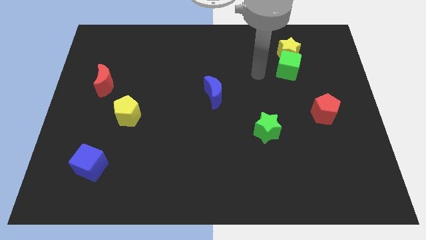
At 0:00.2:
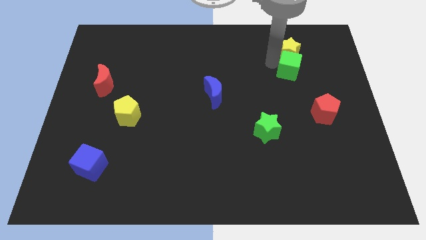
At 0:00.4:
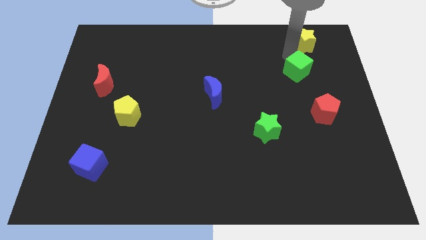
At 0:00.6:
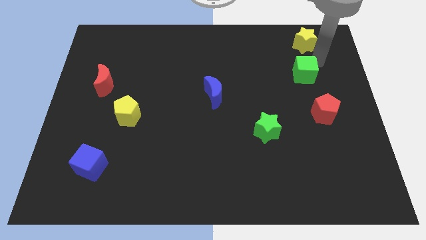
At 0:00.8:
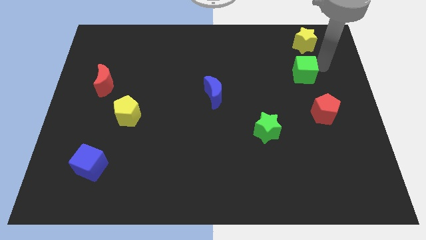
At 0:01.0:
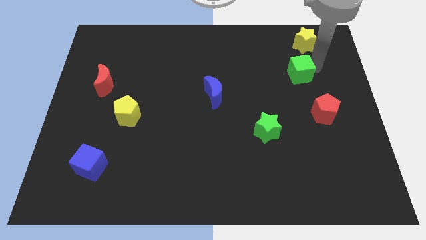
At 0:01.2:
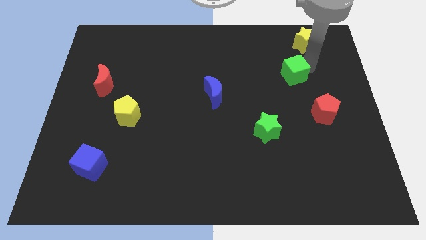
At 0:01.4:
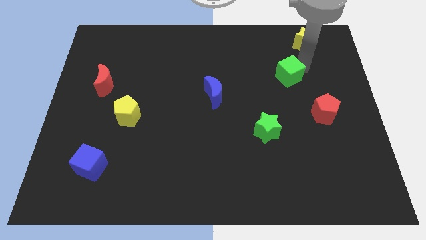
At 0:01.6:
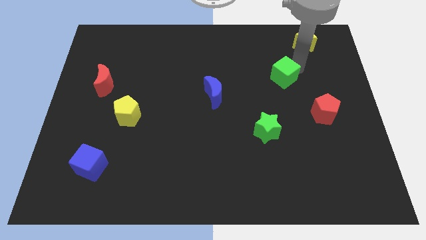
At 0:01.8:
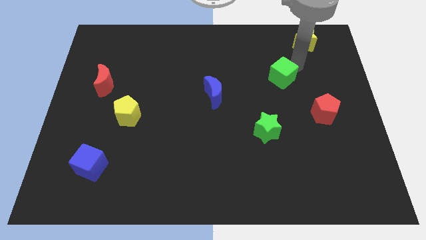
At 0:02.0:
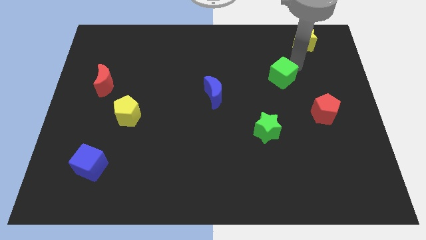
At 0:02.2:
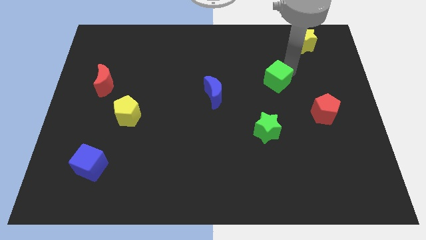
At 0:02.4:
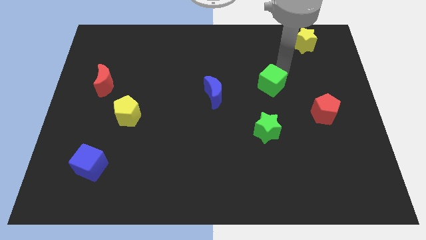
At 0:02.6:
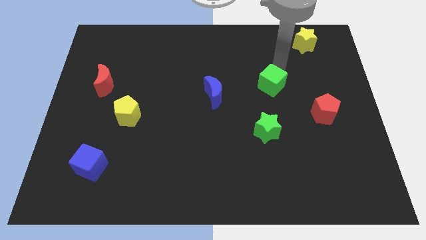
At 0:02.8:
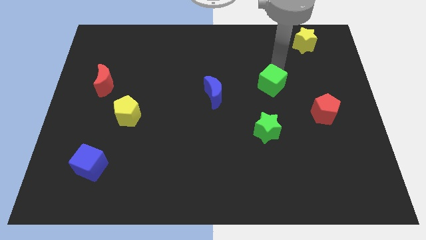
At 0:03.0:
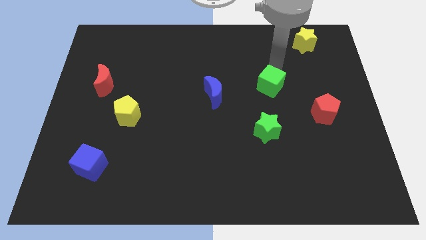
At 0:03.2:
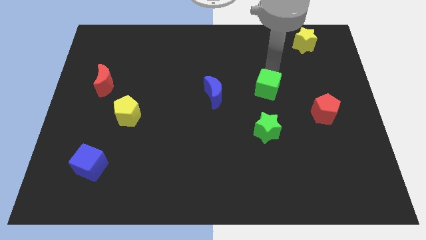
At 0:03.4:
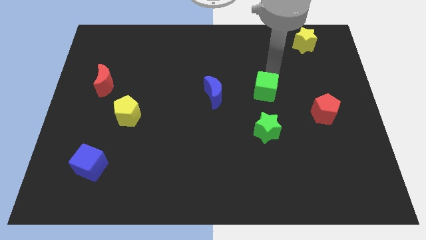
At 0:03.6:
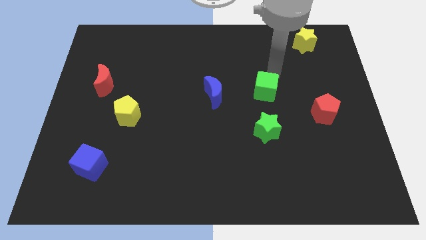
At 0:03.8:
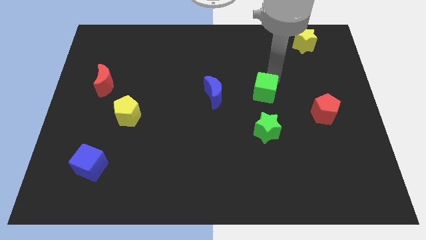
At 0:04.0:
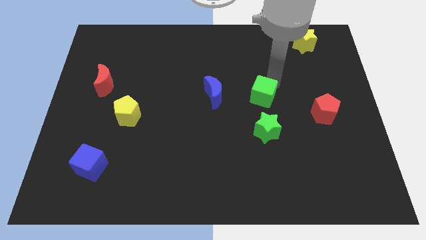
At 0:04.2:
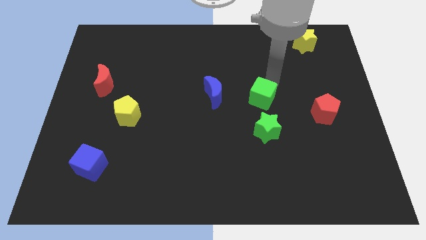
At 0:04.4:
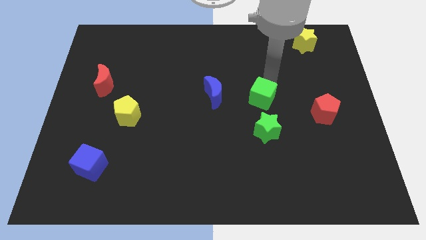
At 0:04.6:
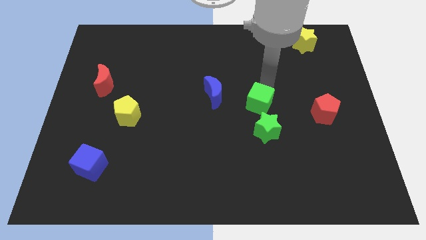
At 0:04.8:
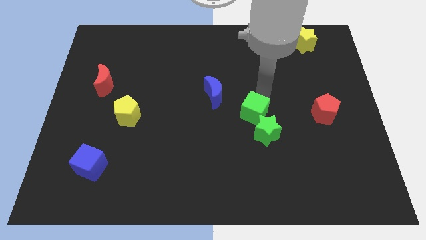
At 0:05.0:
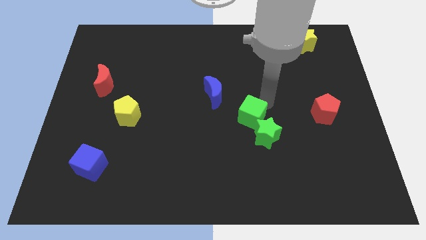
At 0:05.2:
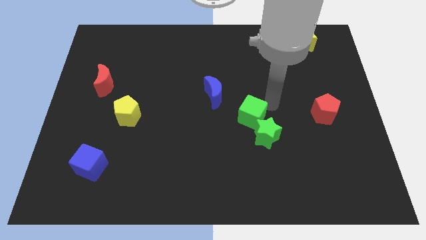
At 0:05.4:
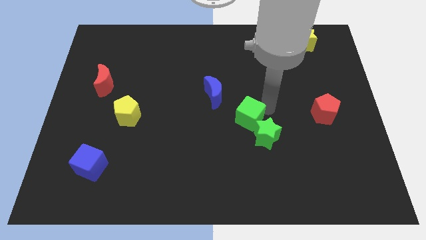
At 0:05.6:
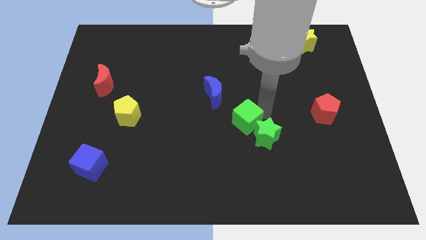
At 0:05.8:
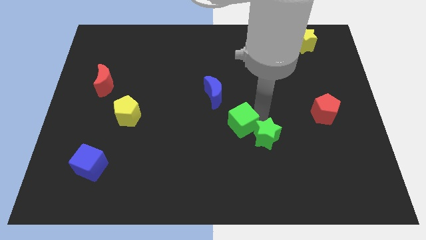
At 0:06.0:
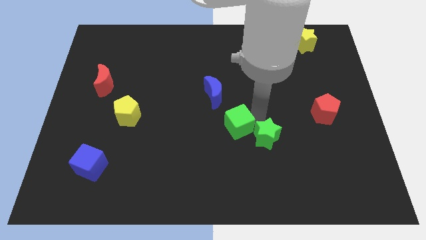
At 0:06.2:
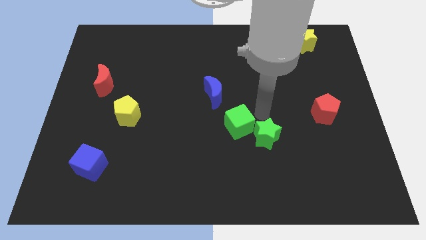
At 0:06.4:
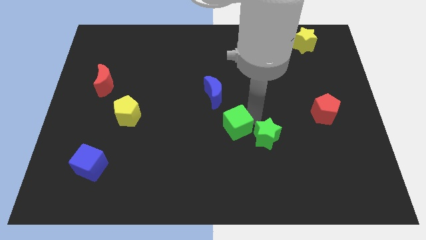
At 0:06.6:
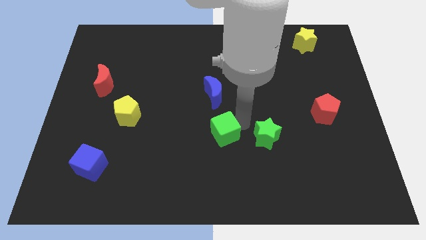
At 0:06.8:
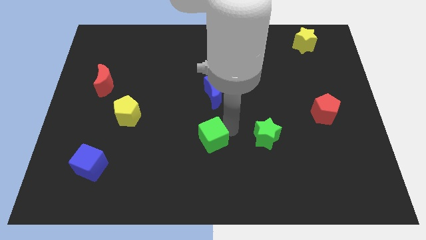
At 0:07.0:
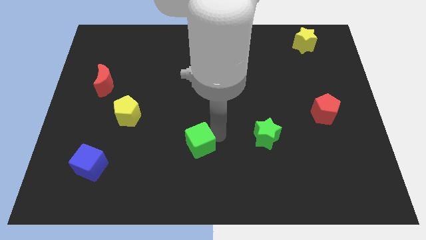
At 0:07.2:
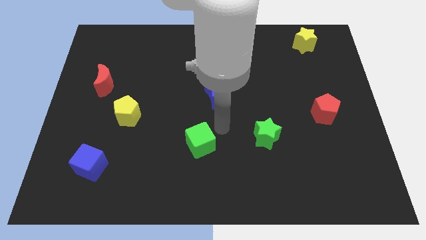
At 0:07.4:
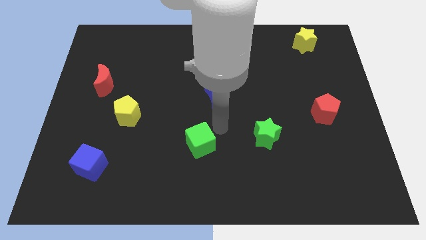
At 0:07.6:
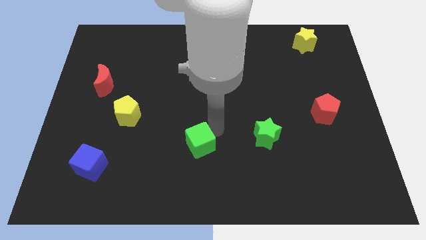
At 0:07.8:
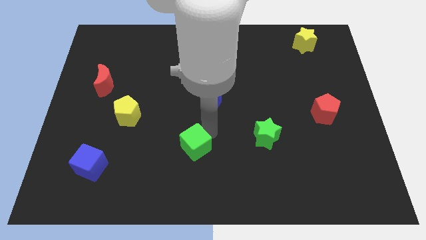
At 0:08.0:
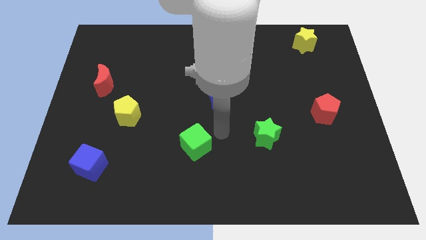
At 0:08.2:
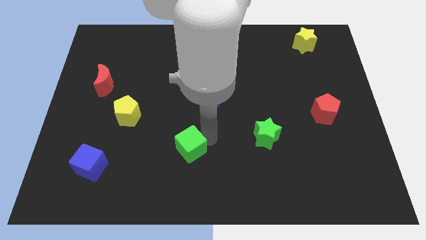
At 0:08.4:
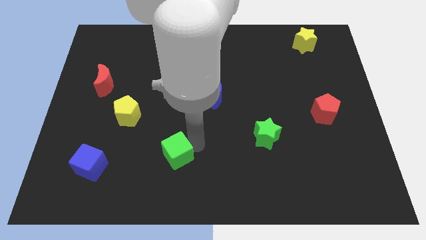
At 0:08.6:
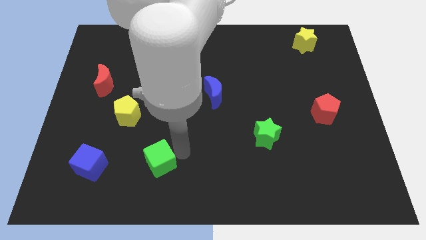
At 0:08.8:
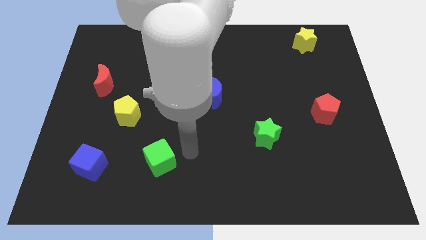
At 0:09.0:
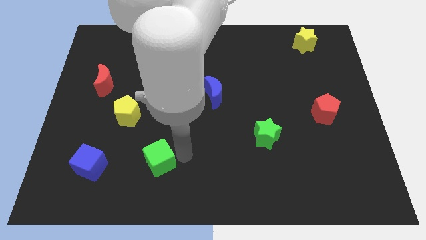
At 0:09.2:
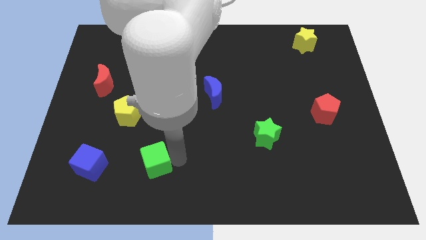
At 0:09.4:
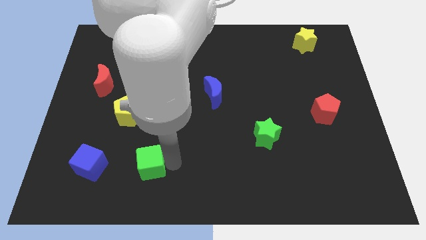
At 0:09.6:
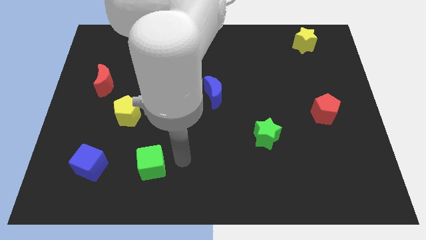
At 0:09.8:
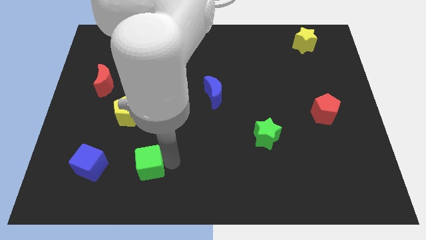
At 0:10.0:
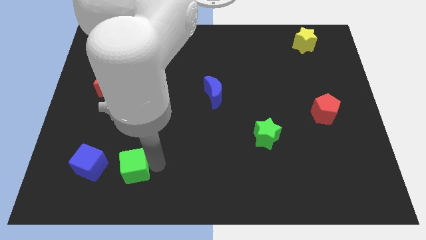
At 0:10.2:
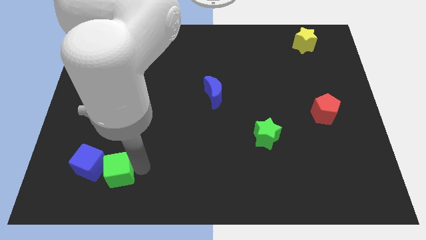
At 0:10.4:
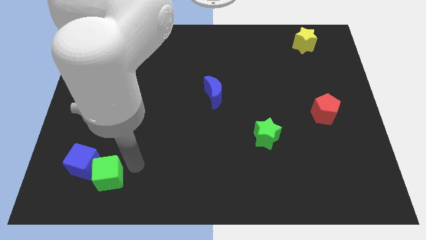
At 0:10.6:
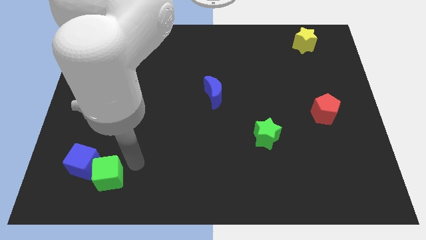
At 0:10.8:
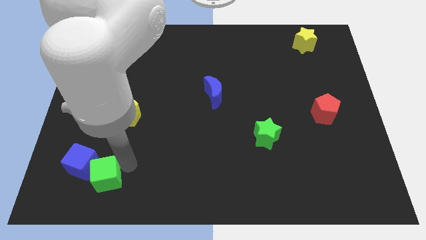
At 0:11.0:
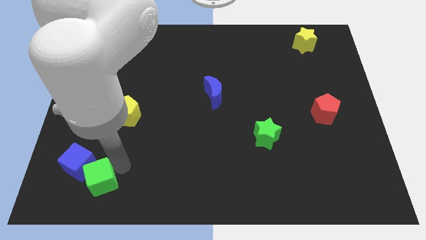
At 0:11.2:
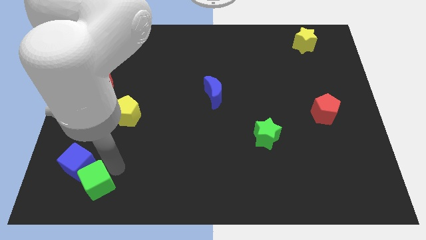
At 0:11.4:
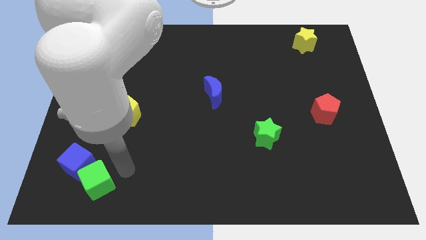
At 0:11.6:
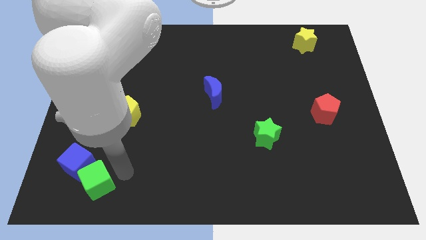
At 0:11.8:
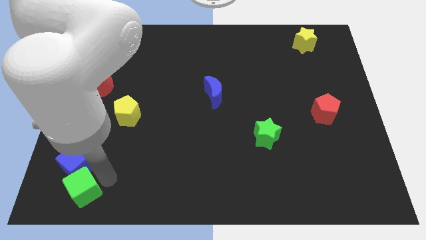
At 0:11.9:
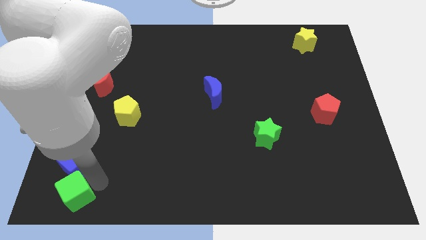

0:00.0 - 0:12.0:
slide the green cube to the bottom left corner
